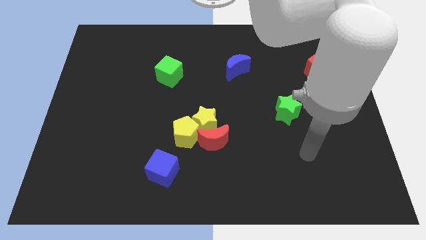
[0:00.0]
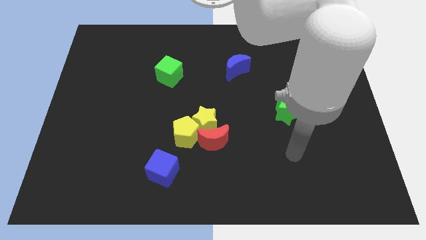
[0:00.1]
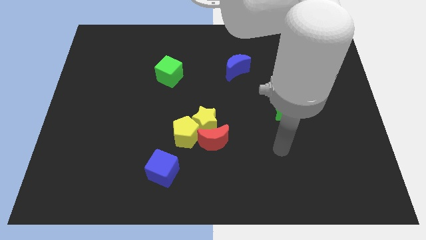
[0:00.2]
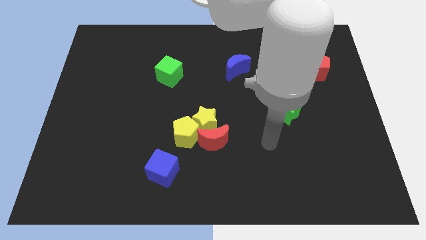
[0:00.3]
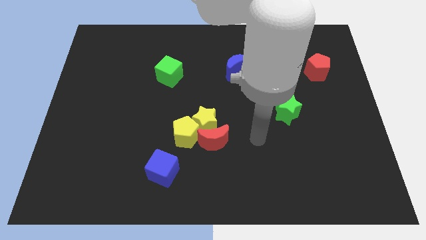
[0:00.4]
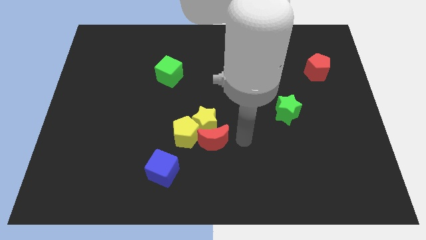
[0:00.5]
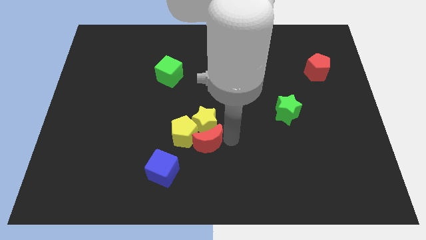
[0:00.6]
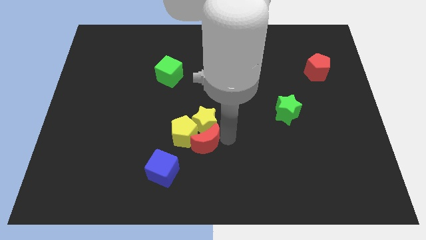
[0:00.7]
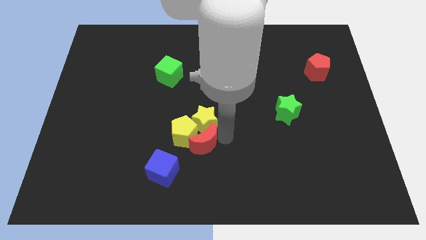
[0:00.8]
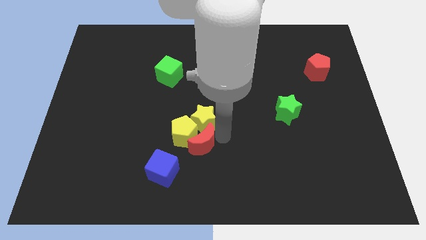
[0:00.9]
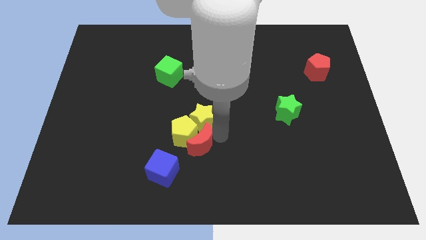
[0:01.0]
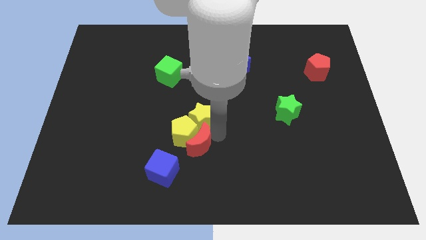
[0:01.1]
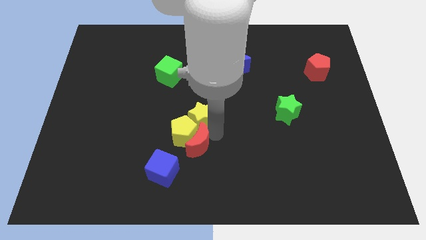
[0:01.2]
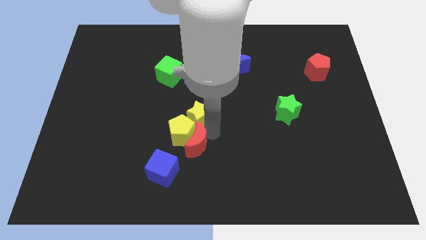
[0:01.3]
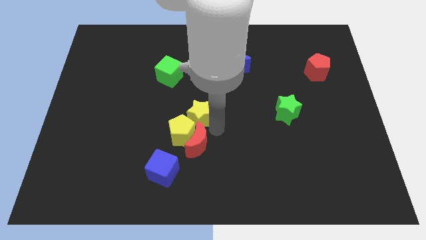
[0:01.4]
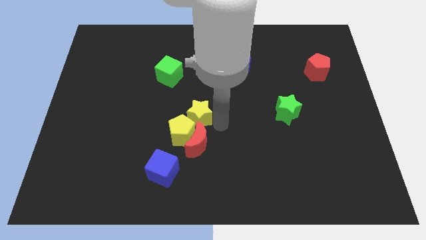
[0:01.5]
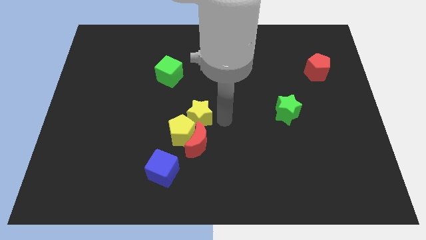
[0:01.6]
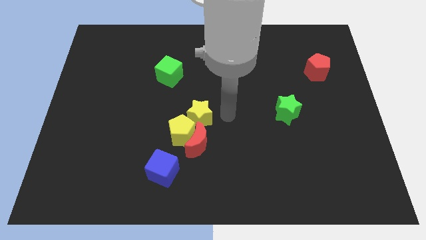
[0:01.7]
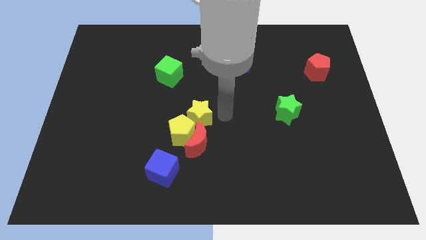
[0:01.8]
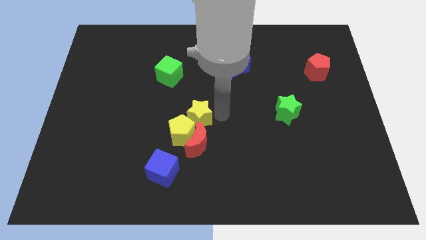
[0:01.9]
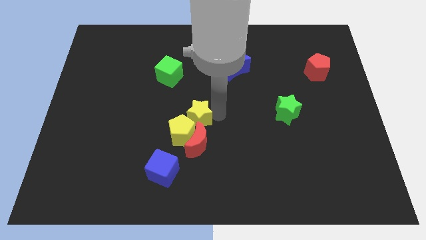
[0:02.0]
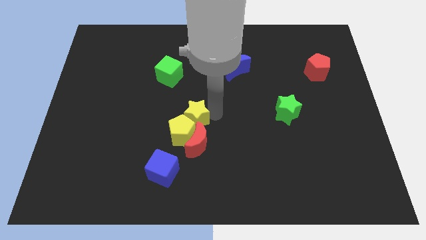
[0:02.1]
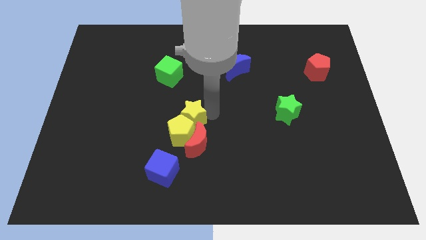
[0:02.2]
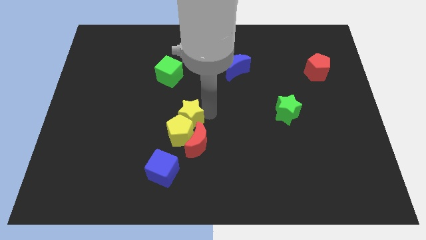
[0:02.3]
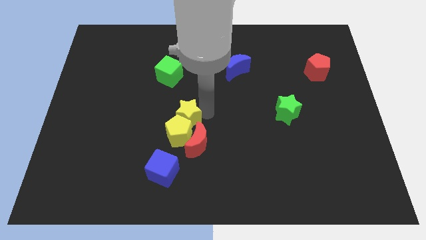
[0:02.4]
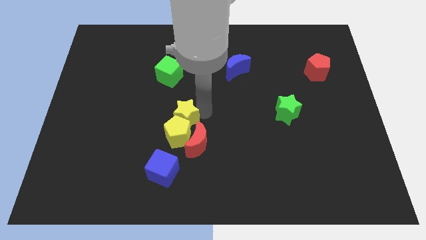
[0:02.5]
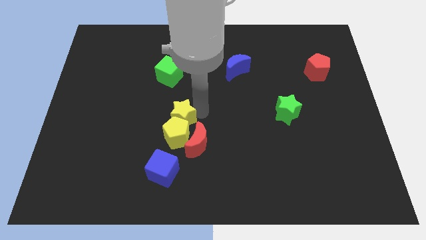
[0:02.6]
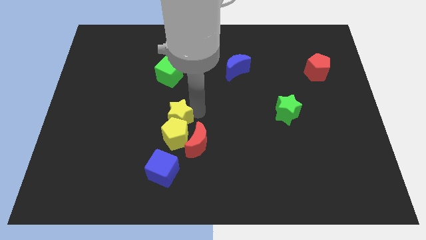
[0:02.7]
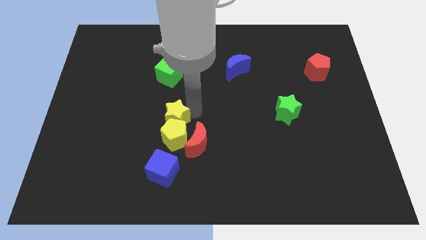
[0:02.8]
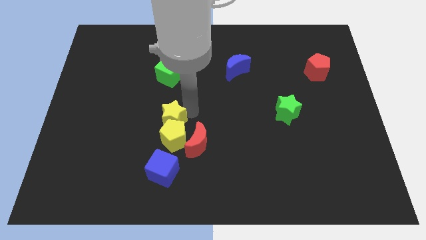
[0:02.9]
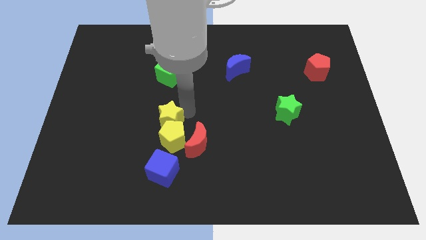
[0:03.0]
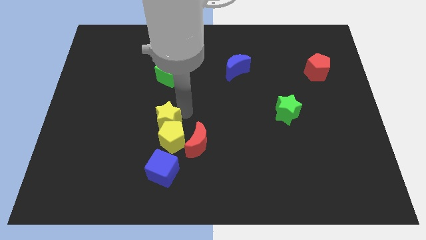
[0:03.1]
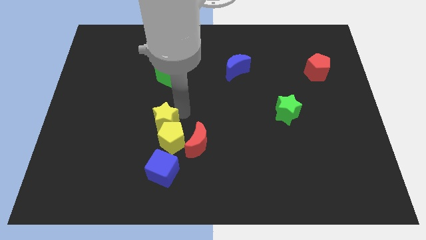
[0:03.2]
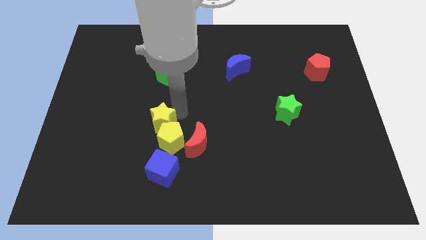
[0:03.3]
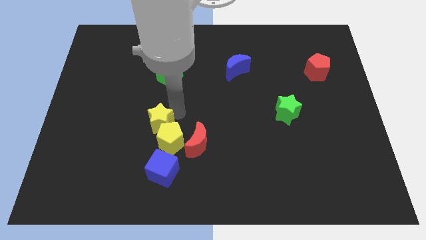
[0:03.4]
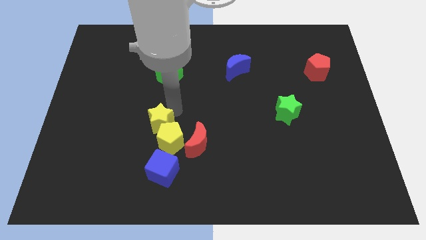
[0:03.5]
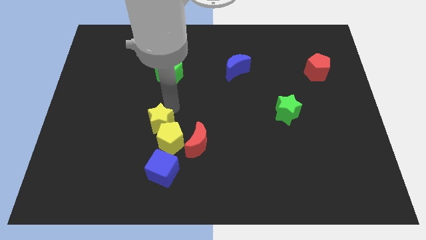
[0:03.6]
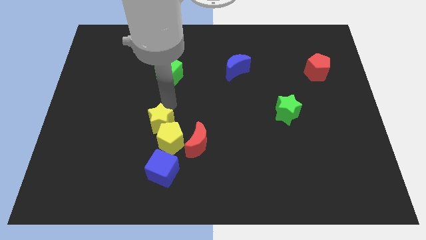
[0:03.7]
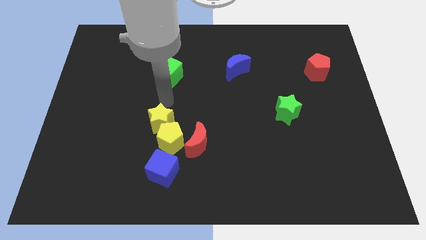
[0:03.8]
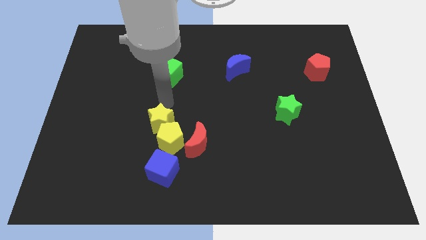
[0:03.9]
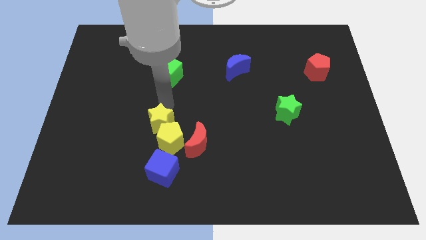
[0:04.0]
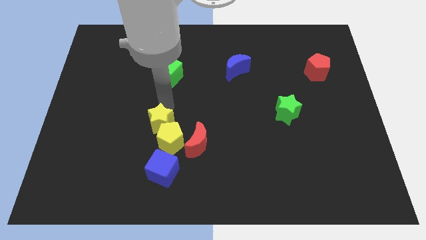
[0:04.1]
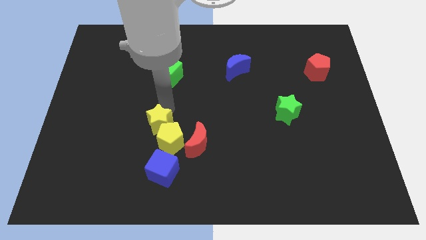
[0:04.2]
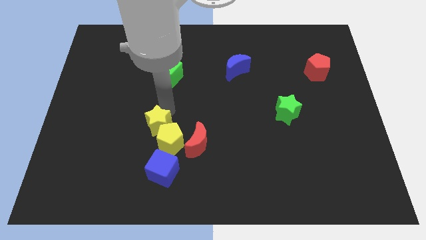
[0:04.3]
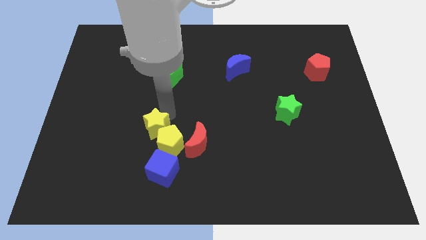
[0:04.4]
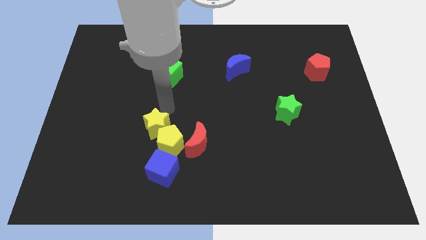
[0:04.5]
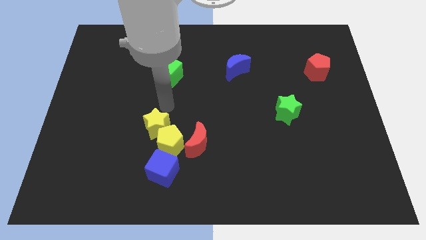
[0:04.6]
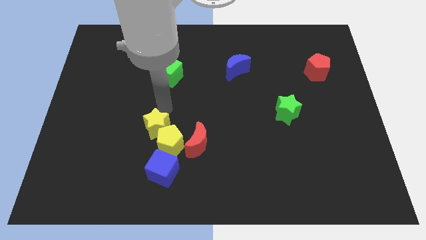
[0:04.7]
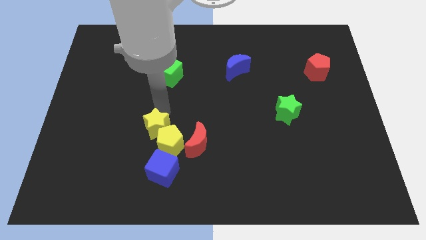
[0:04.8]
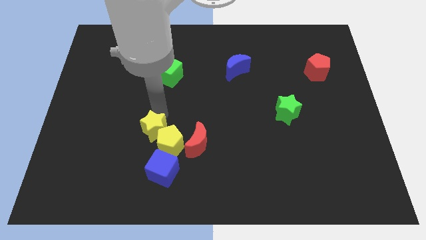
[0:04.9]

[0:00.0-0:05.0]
push the yellow star a little diagonally downwards and to the left

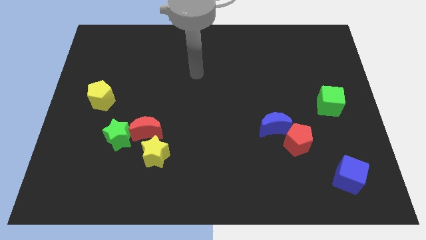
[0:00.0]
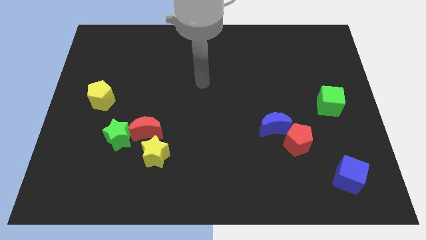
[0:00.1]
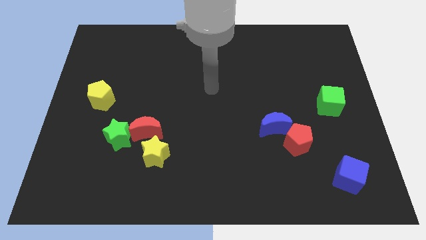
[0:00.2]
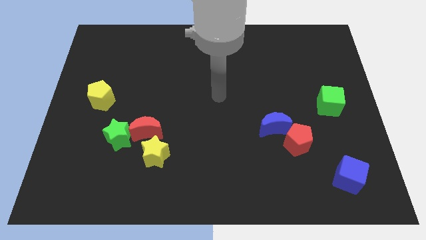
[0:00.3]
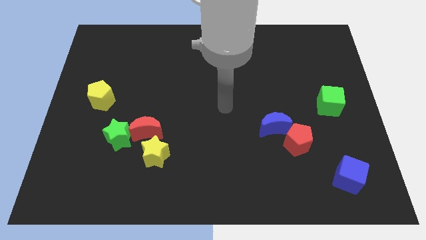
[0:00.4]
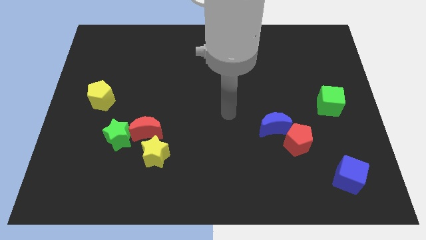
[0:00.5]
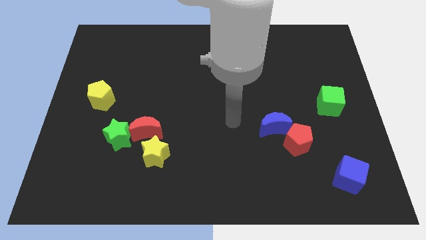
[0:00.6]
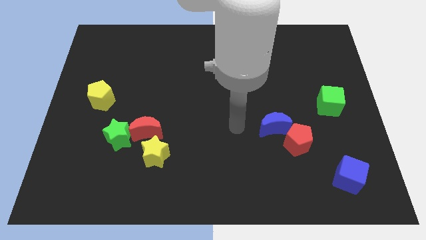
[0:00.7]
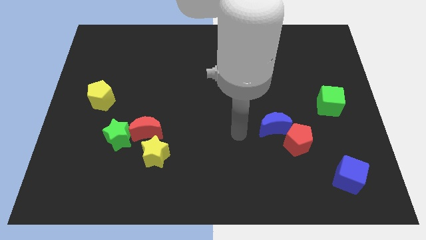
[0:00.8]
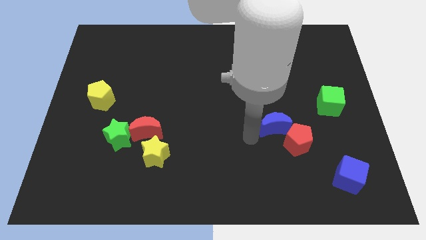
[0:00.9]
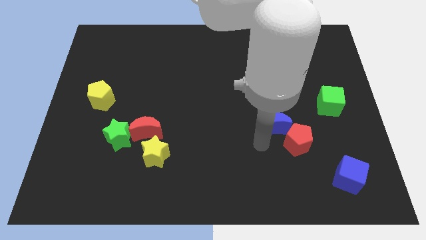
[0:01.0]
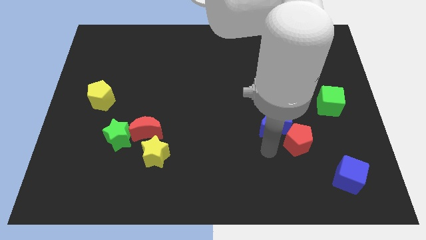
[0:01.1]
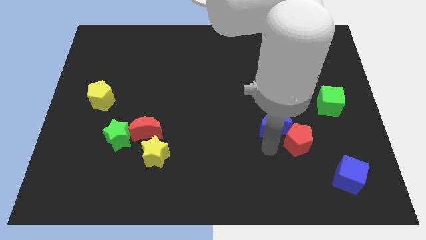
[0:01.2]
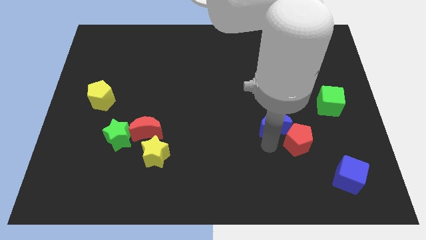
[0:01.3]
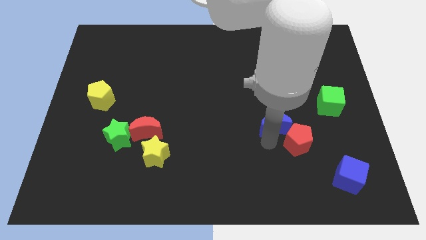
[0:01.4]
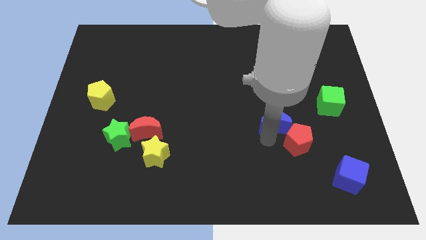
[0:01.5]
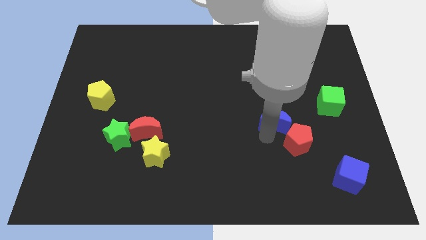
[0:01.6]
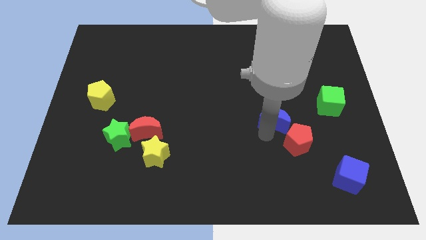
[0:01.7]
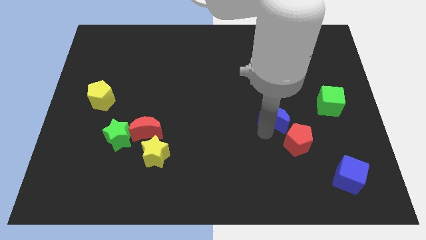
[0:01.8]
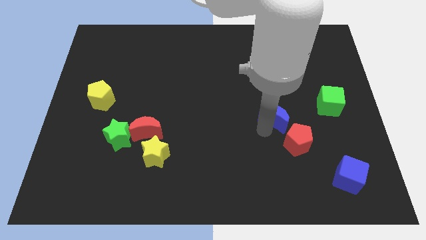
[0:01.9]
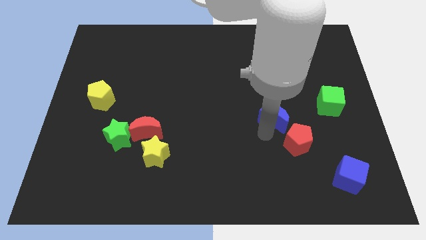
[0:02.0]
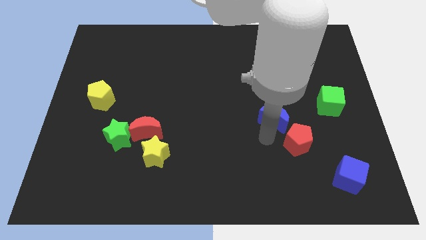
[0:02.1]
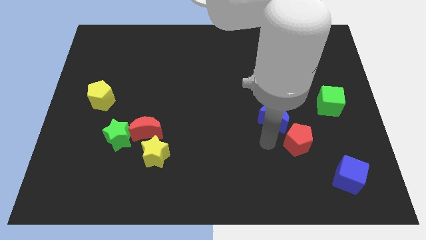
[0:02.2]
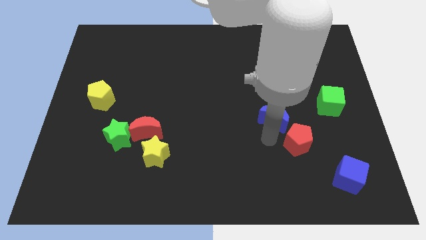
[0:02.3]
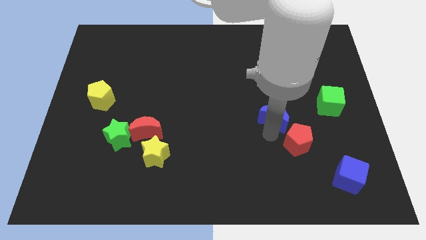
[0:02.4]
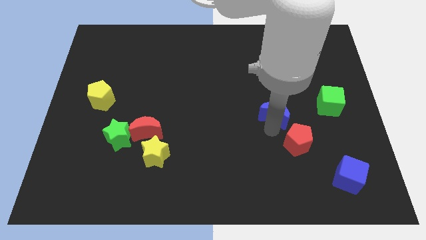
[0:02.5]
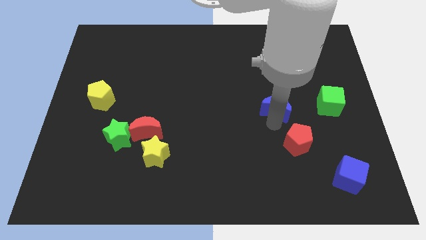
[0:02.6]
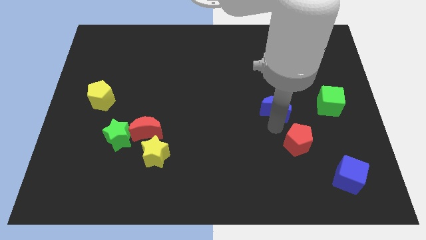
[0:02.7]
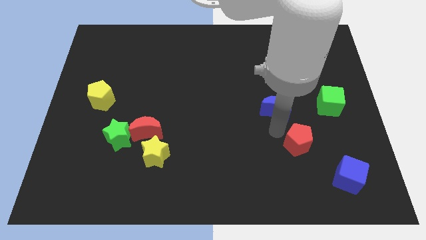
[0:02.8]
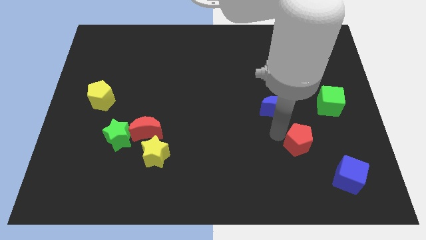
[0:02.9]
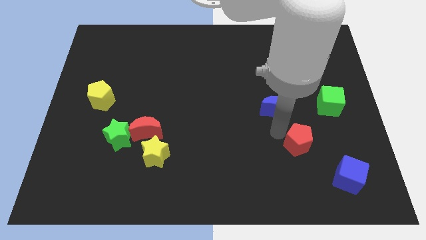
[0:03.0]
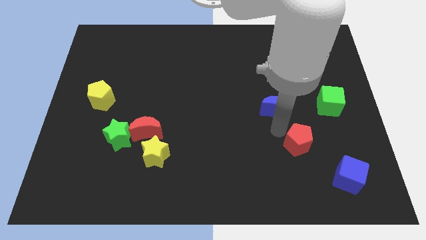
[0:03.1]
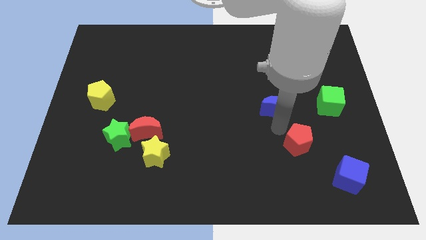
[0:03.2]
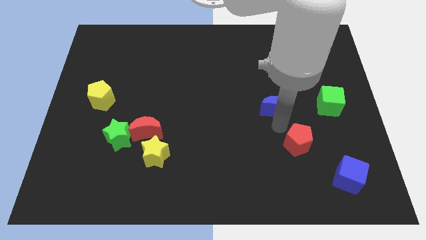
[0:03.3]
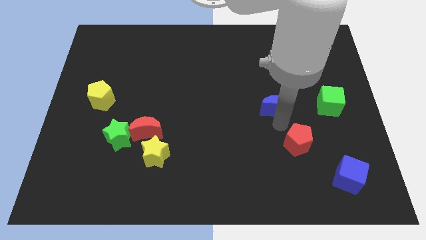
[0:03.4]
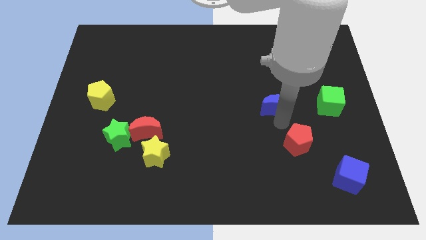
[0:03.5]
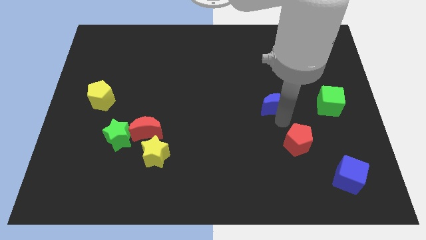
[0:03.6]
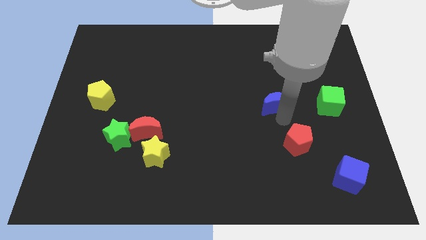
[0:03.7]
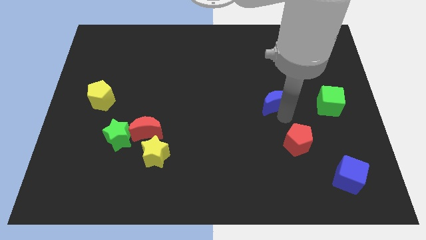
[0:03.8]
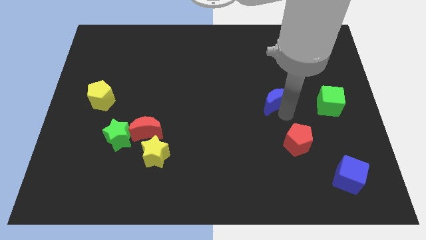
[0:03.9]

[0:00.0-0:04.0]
push the blue moon a bit upwards
